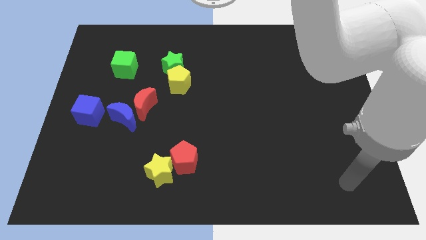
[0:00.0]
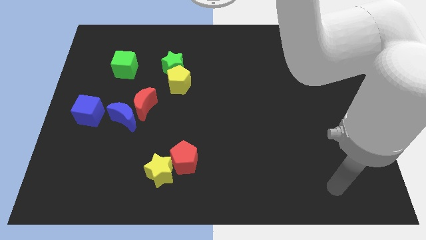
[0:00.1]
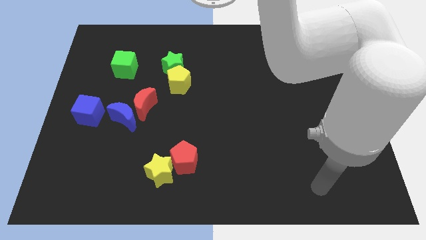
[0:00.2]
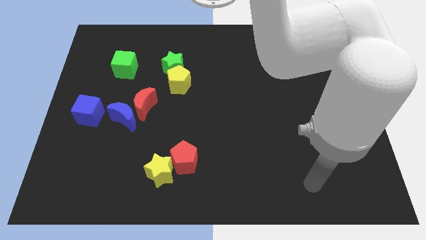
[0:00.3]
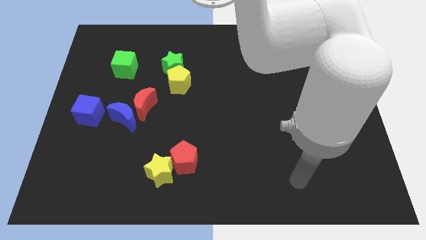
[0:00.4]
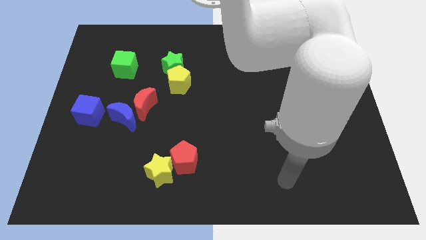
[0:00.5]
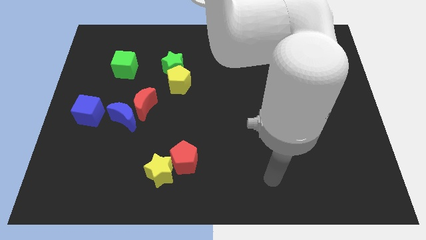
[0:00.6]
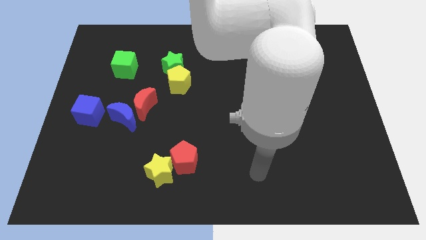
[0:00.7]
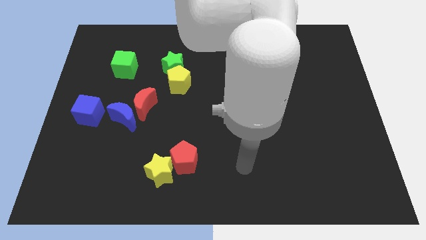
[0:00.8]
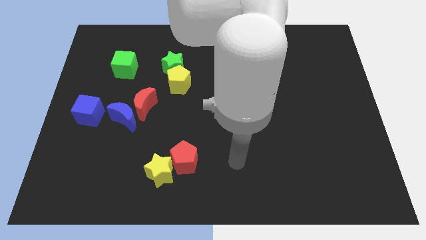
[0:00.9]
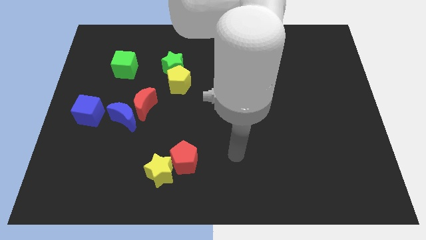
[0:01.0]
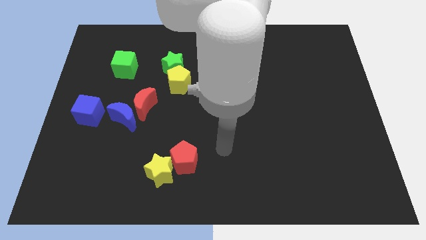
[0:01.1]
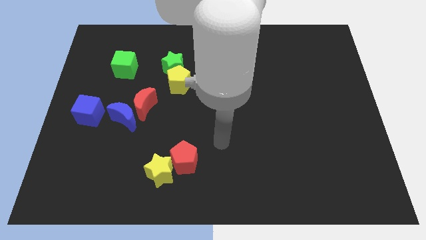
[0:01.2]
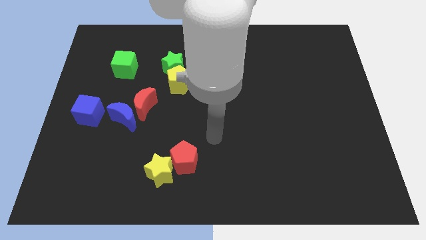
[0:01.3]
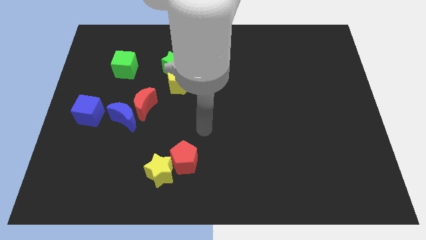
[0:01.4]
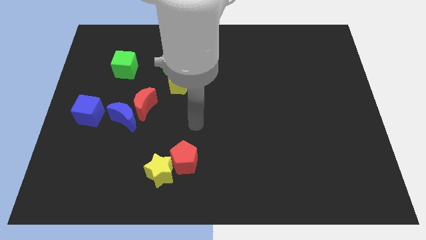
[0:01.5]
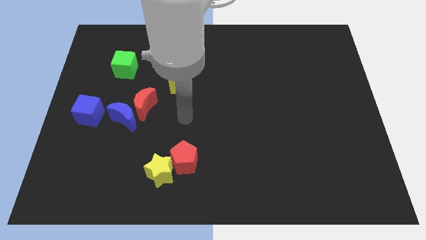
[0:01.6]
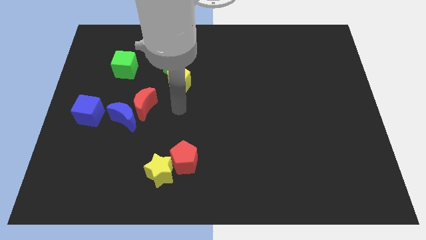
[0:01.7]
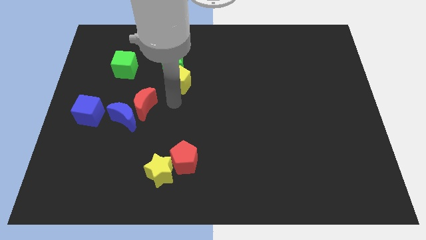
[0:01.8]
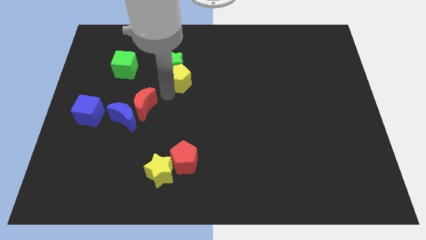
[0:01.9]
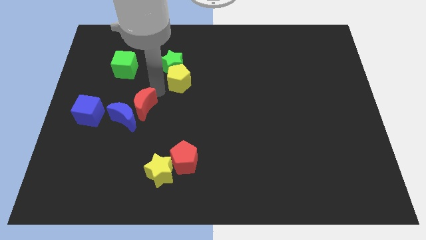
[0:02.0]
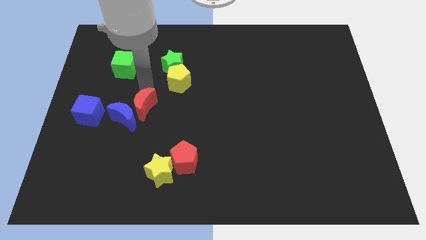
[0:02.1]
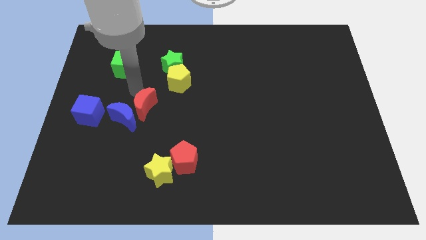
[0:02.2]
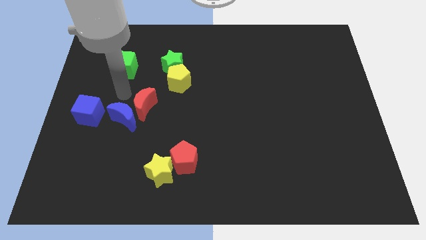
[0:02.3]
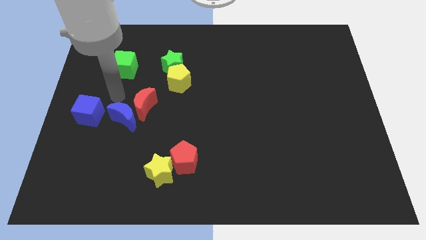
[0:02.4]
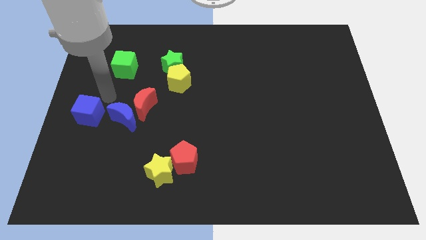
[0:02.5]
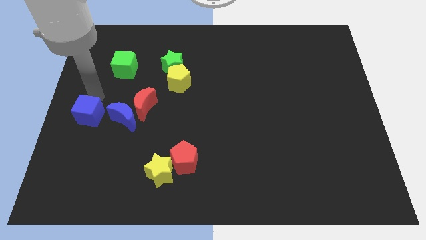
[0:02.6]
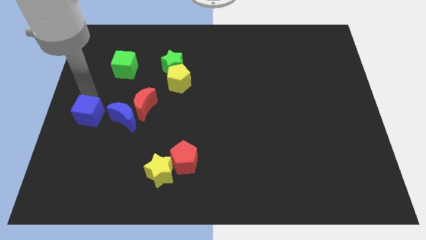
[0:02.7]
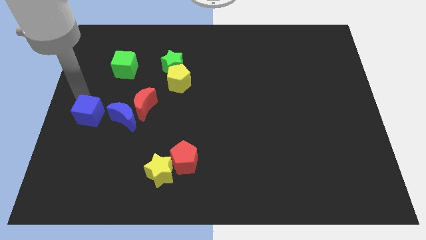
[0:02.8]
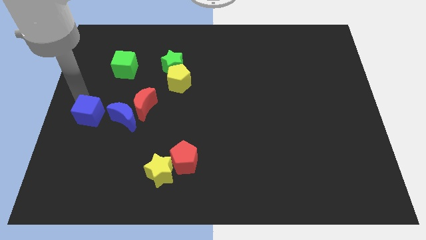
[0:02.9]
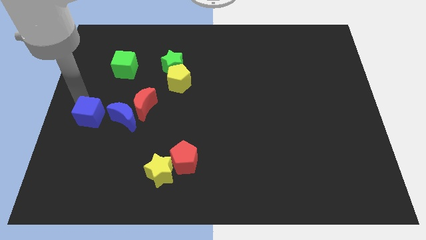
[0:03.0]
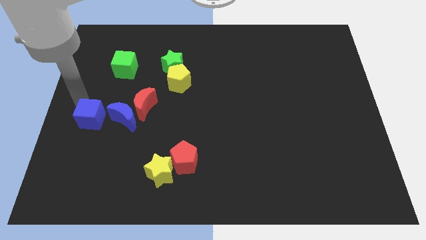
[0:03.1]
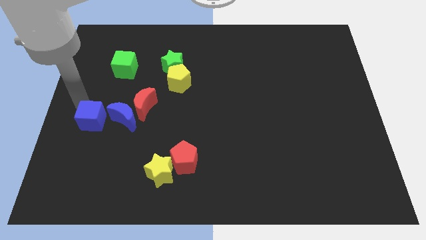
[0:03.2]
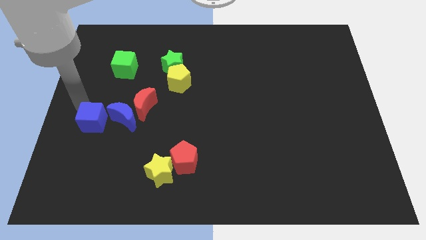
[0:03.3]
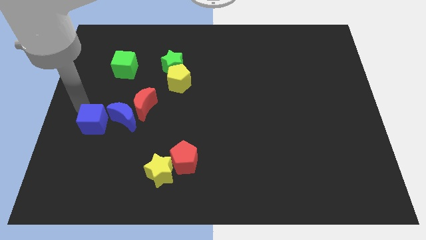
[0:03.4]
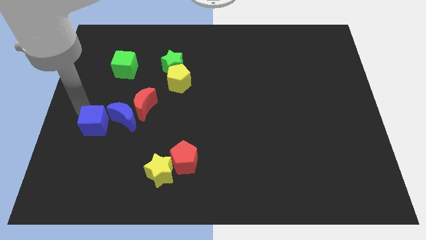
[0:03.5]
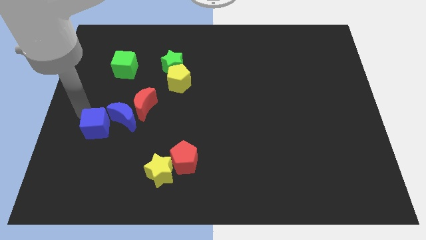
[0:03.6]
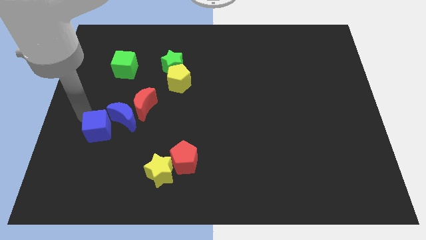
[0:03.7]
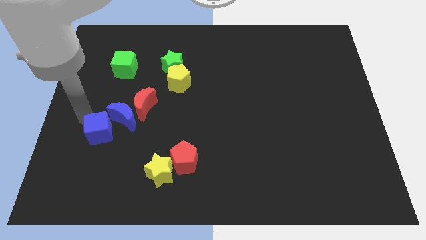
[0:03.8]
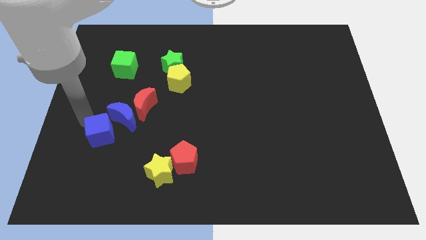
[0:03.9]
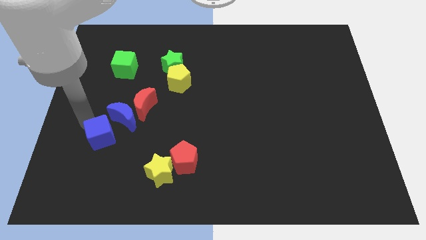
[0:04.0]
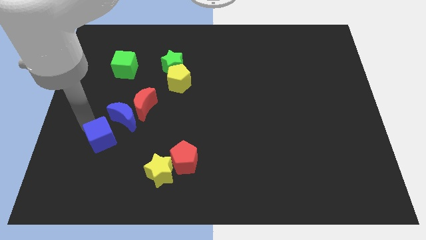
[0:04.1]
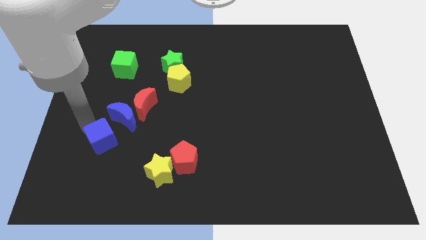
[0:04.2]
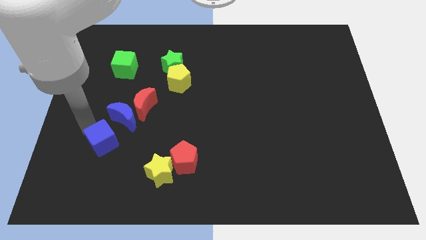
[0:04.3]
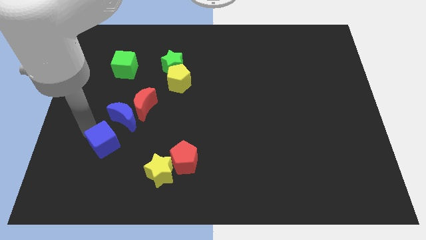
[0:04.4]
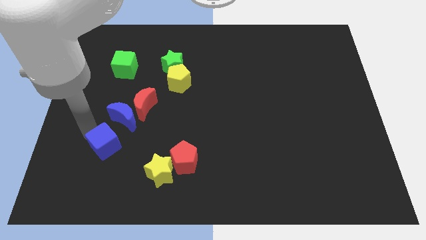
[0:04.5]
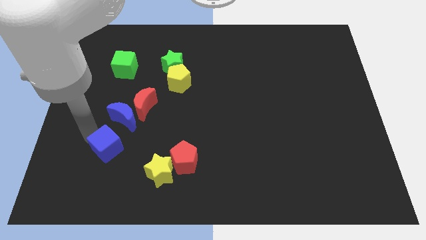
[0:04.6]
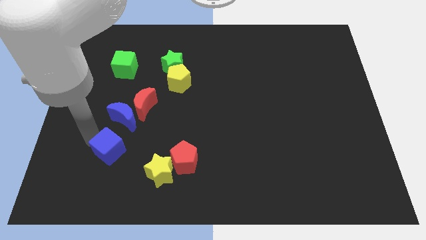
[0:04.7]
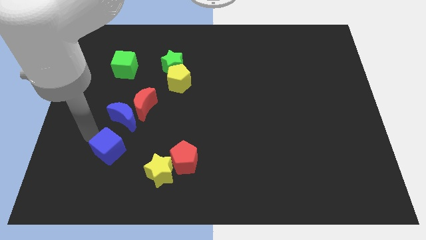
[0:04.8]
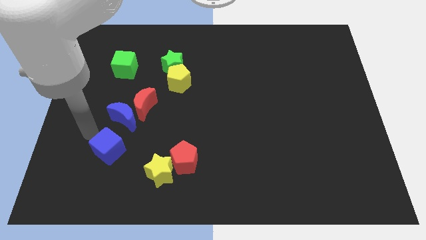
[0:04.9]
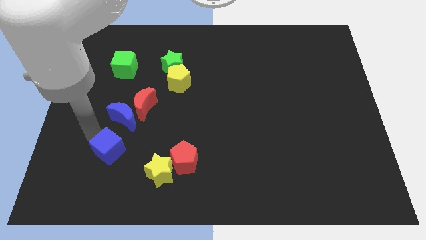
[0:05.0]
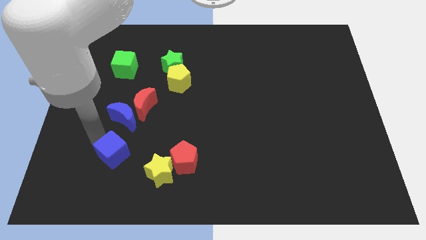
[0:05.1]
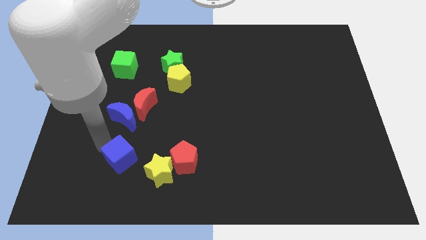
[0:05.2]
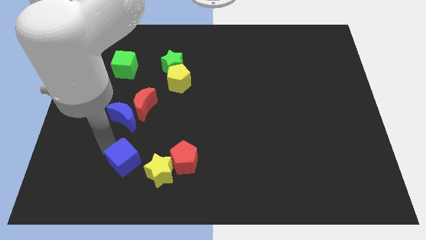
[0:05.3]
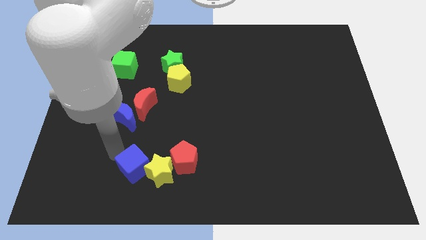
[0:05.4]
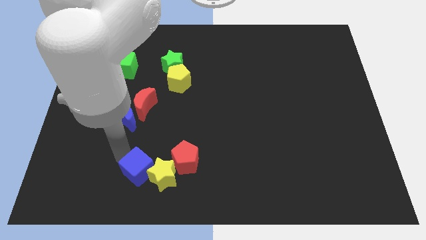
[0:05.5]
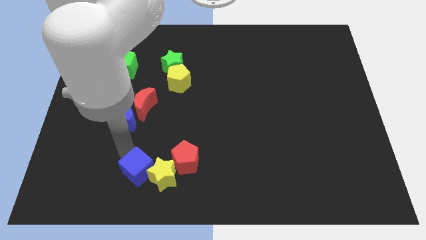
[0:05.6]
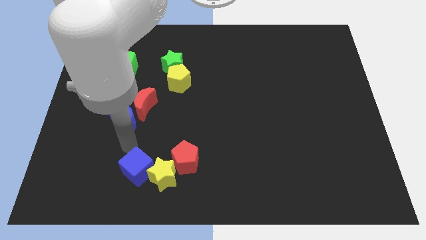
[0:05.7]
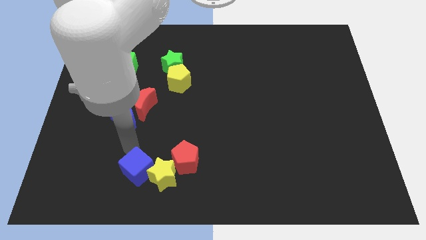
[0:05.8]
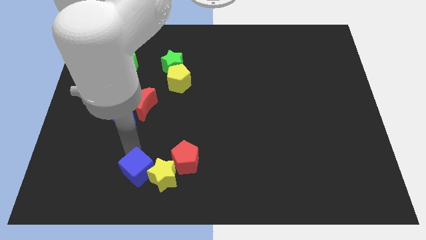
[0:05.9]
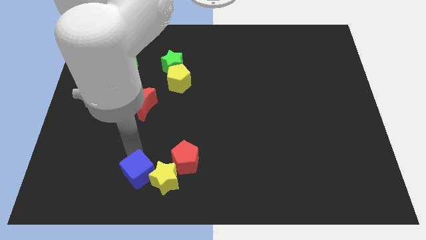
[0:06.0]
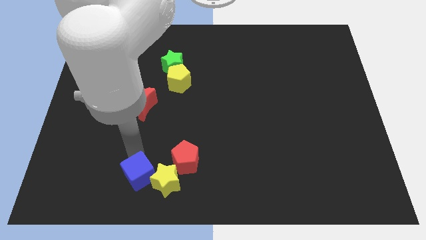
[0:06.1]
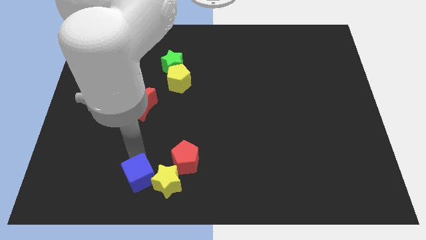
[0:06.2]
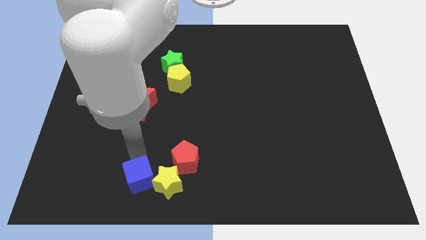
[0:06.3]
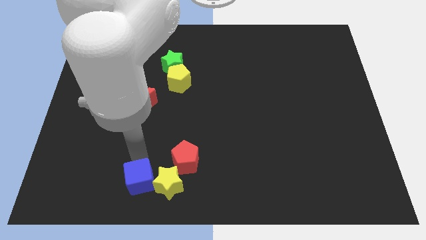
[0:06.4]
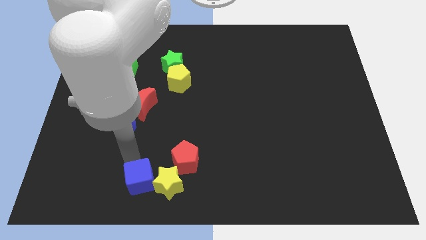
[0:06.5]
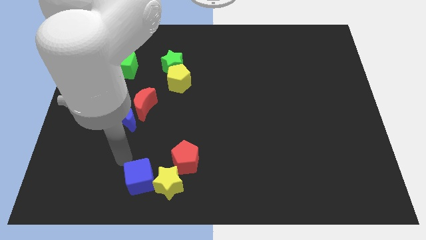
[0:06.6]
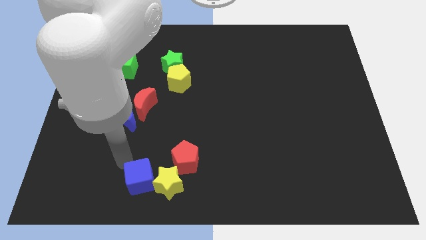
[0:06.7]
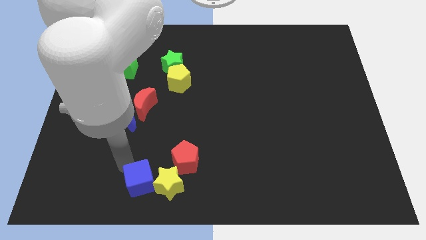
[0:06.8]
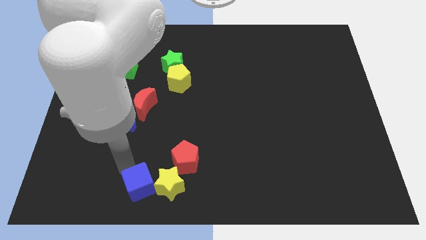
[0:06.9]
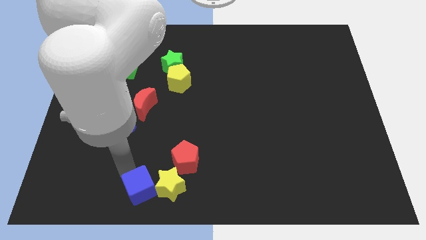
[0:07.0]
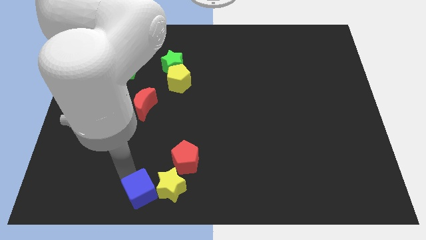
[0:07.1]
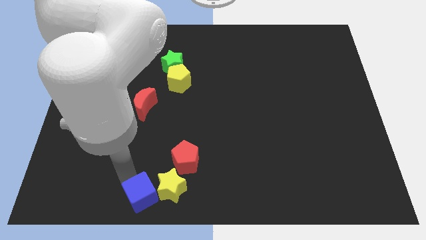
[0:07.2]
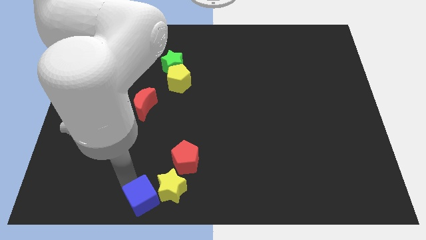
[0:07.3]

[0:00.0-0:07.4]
push the blue cube to the bottom side
